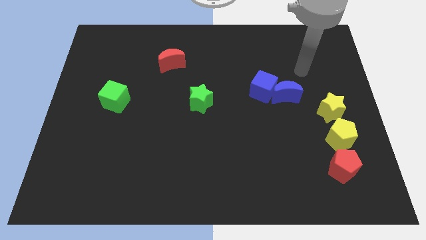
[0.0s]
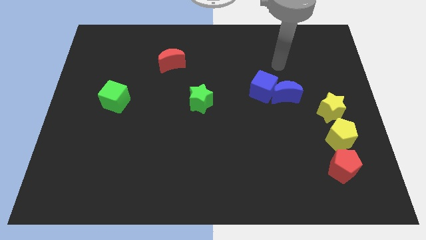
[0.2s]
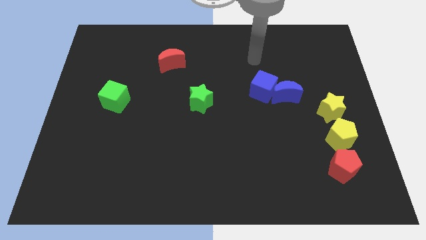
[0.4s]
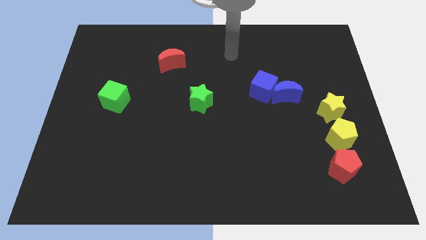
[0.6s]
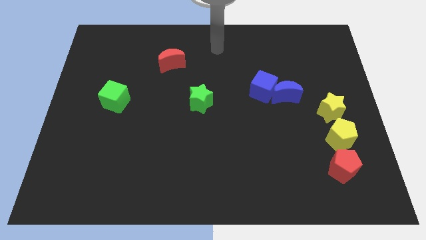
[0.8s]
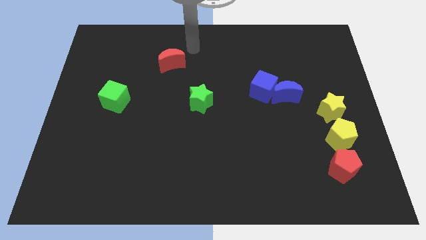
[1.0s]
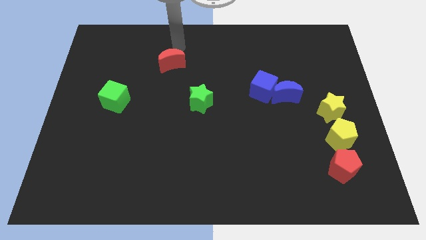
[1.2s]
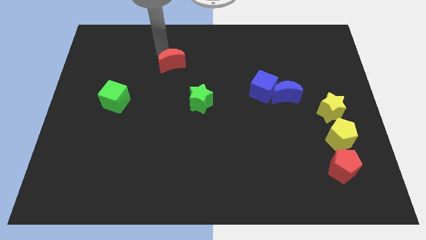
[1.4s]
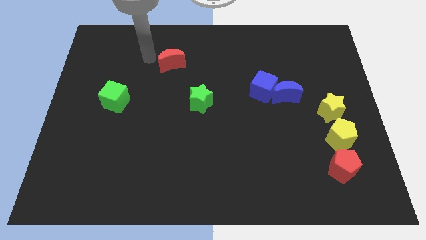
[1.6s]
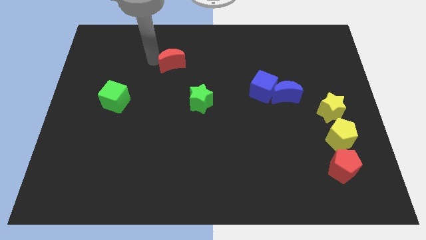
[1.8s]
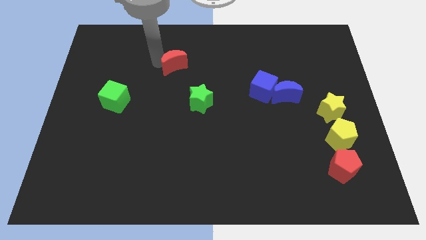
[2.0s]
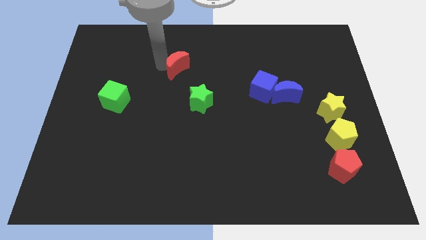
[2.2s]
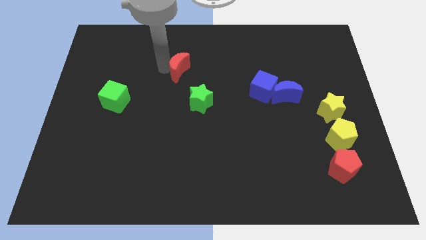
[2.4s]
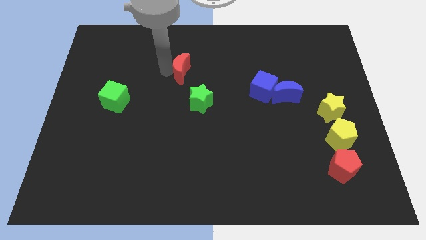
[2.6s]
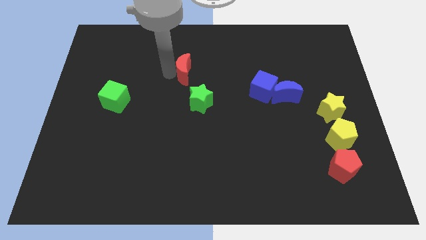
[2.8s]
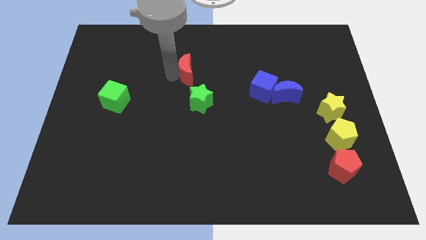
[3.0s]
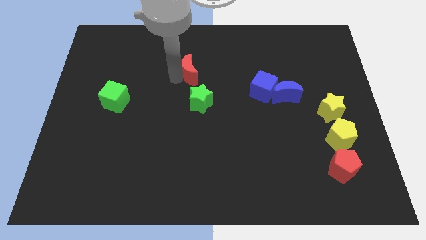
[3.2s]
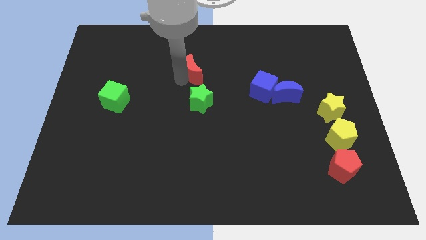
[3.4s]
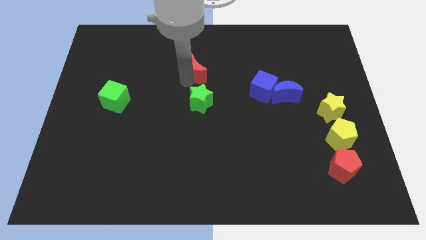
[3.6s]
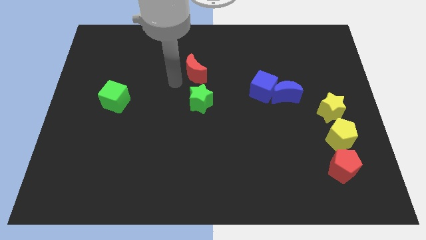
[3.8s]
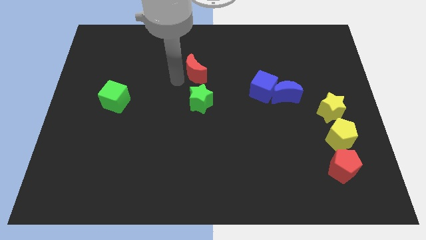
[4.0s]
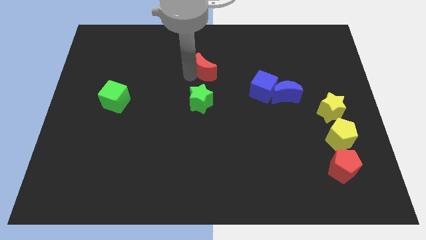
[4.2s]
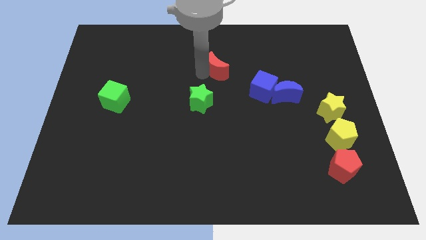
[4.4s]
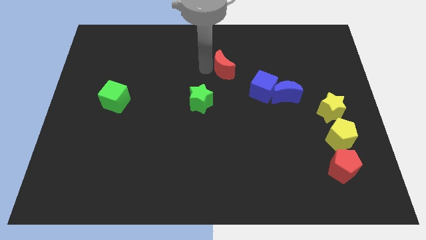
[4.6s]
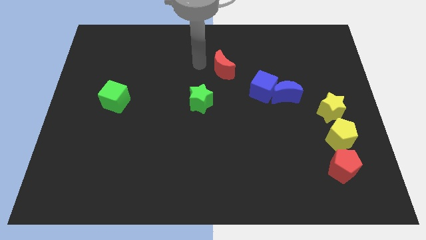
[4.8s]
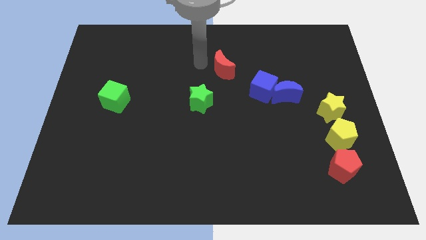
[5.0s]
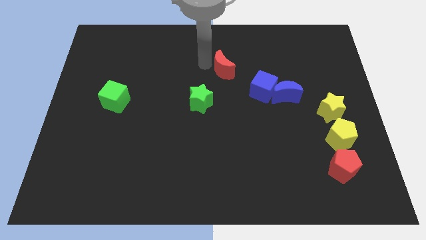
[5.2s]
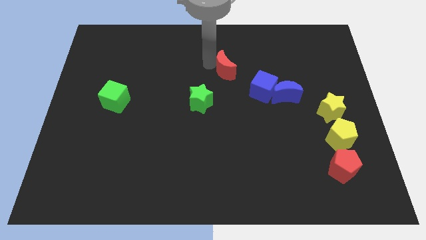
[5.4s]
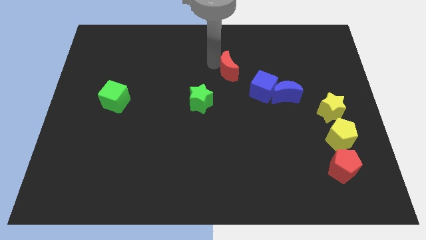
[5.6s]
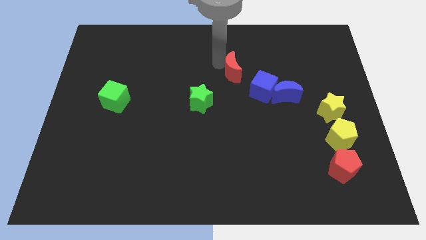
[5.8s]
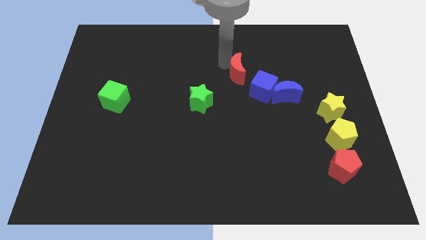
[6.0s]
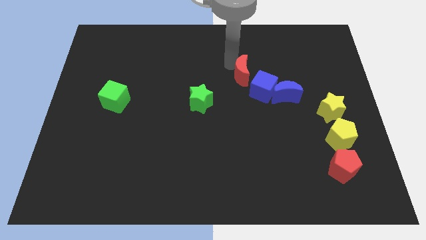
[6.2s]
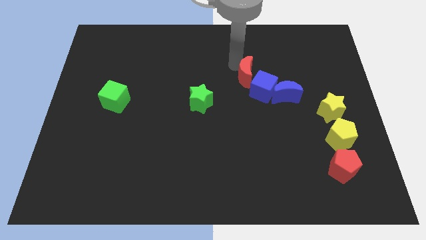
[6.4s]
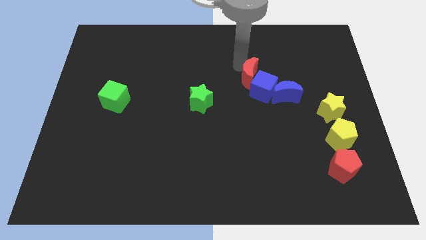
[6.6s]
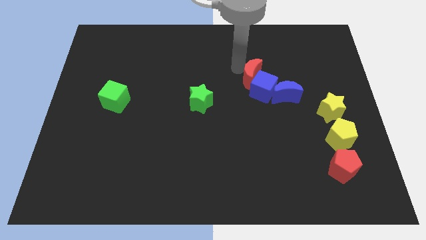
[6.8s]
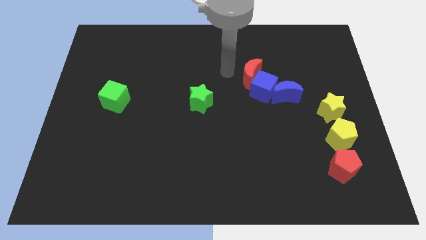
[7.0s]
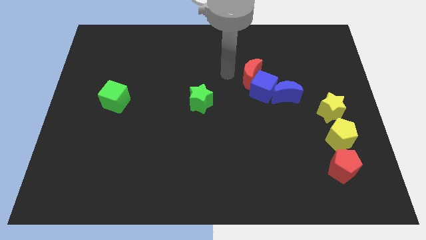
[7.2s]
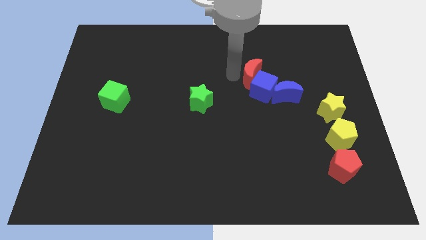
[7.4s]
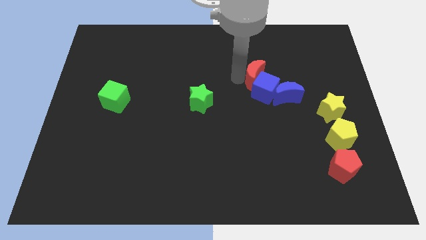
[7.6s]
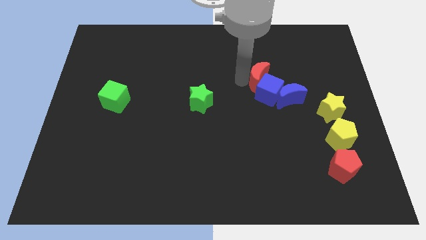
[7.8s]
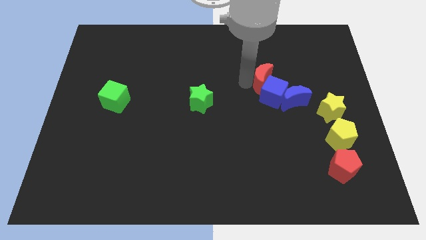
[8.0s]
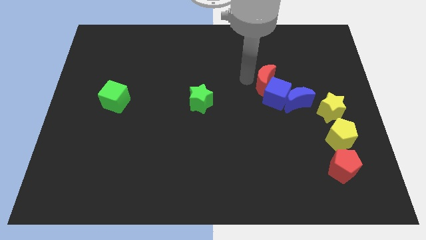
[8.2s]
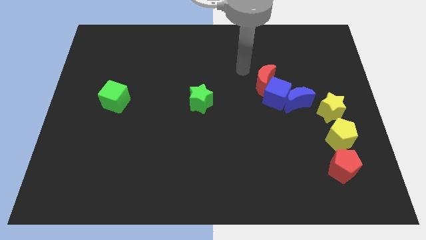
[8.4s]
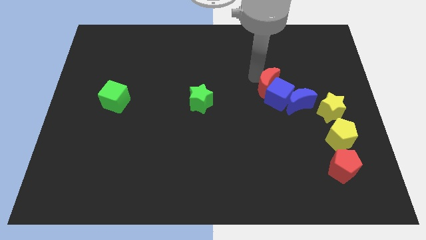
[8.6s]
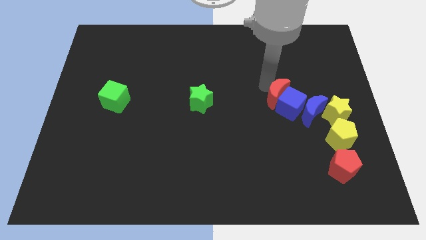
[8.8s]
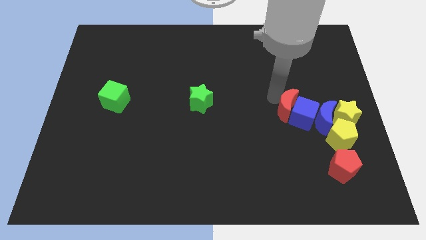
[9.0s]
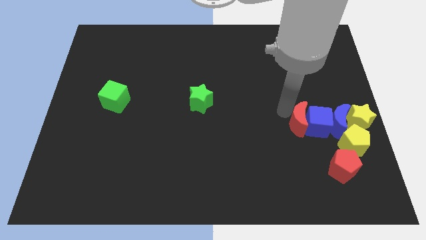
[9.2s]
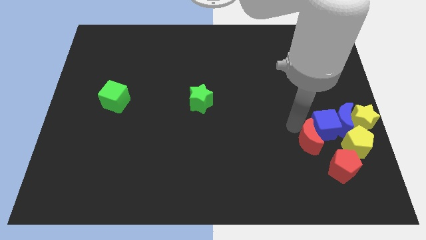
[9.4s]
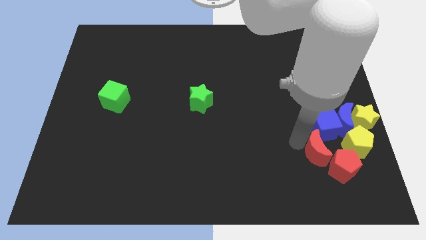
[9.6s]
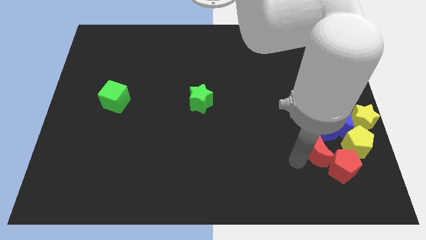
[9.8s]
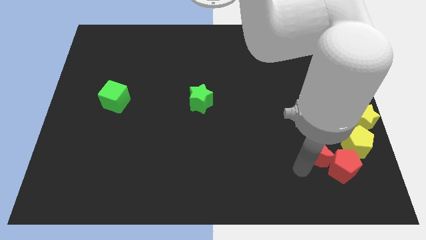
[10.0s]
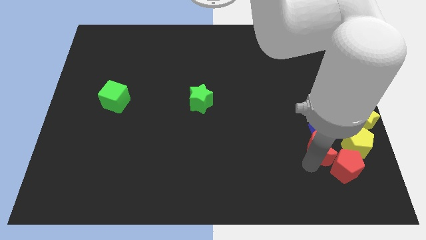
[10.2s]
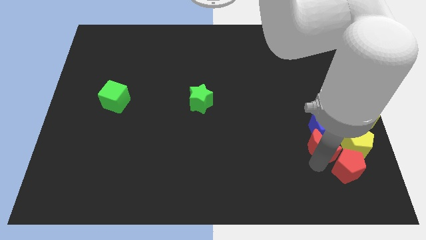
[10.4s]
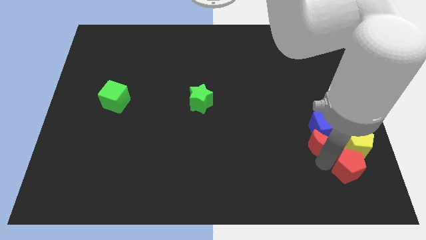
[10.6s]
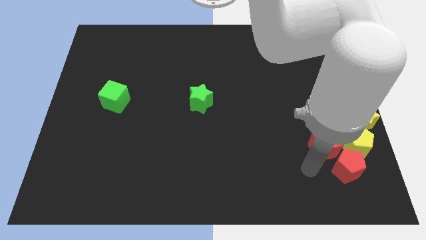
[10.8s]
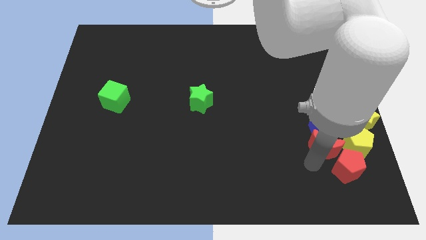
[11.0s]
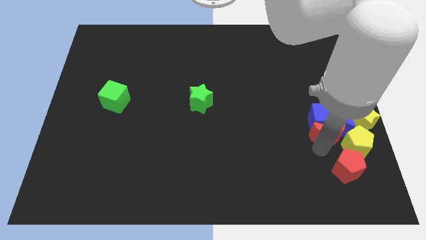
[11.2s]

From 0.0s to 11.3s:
slide the red moon to the blue moon

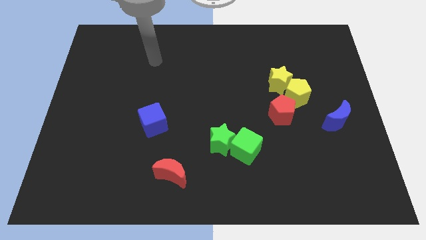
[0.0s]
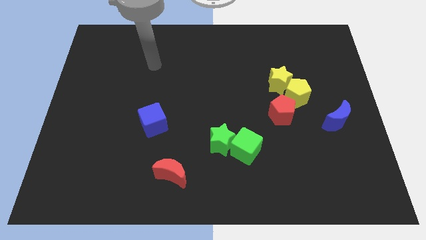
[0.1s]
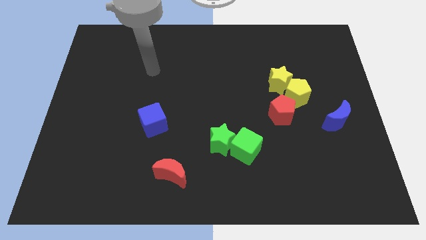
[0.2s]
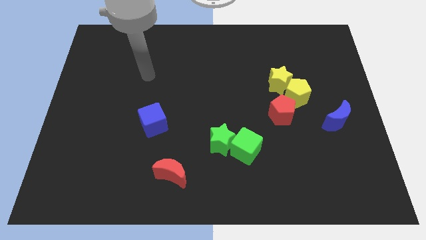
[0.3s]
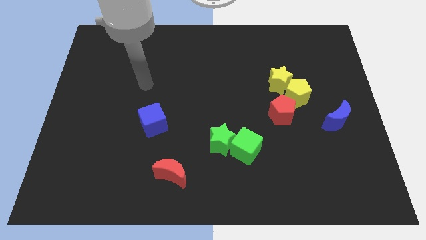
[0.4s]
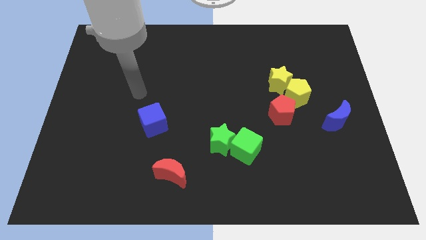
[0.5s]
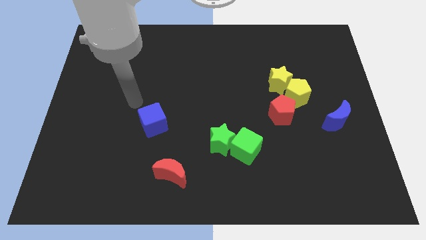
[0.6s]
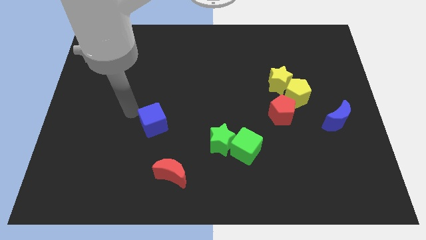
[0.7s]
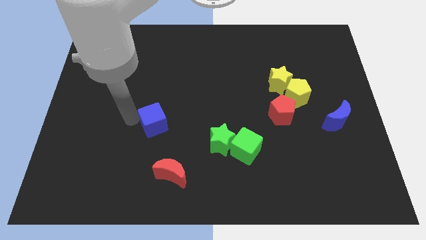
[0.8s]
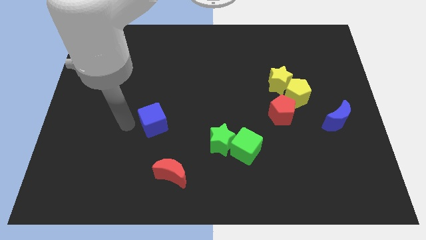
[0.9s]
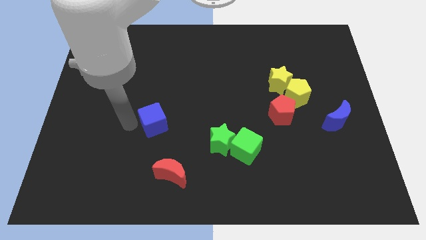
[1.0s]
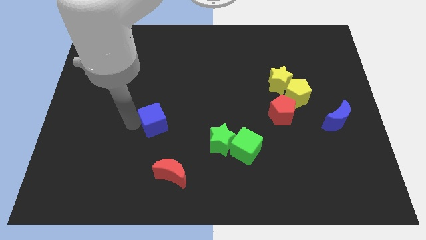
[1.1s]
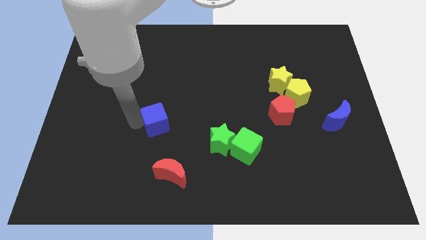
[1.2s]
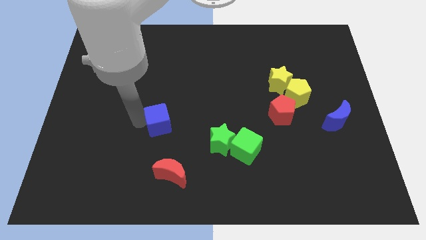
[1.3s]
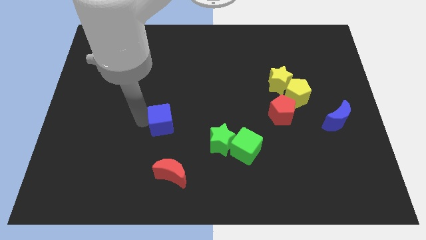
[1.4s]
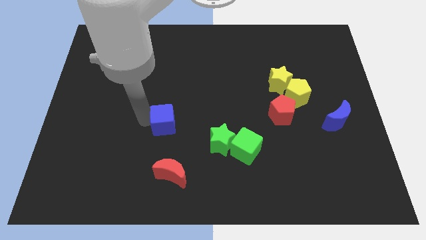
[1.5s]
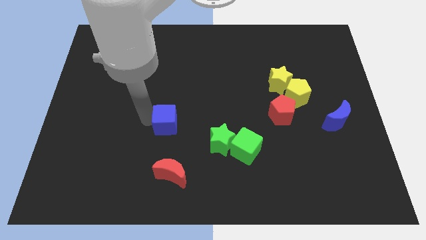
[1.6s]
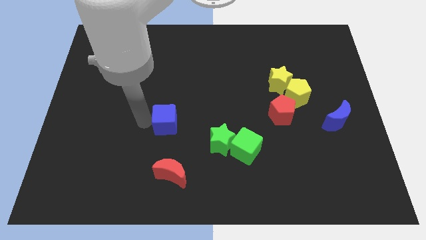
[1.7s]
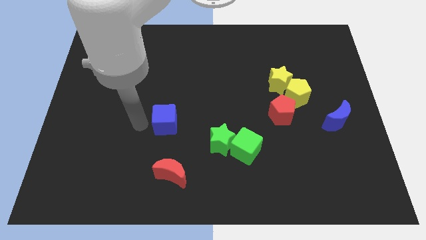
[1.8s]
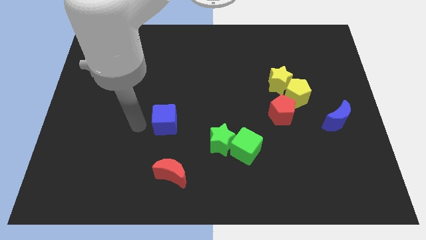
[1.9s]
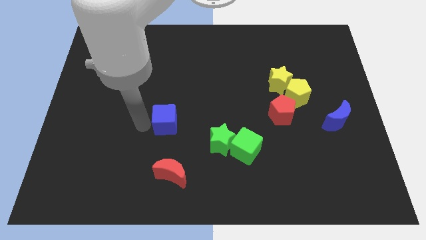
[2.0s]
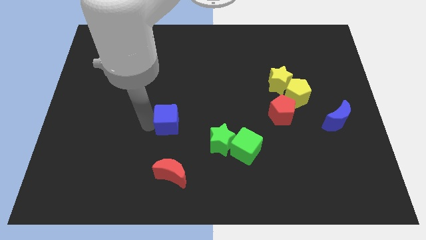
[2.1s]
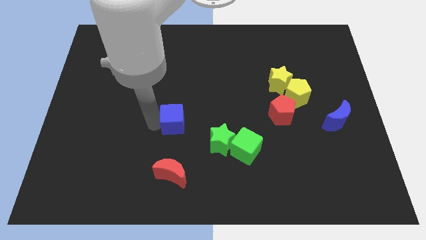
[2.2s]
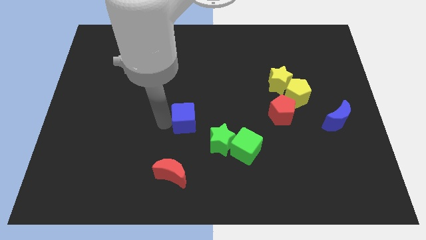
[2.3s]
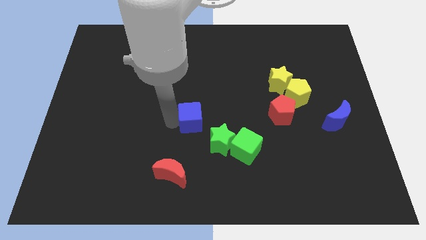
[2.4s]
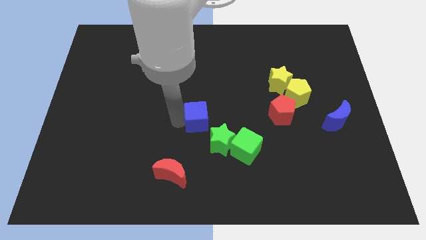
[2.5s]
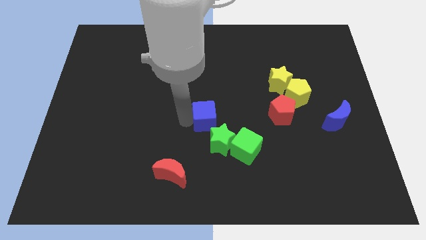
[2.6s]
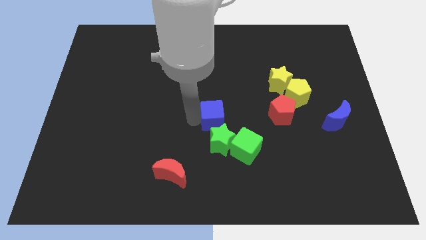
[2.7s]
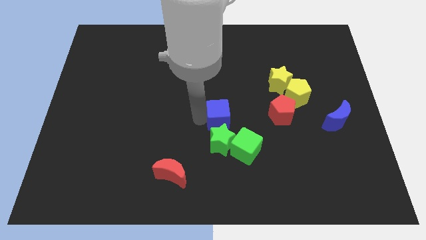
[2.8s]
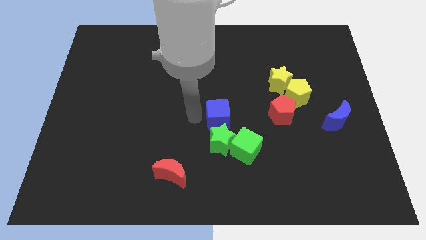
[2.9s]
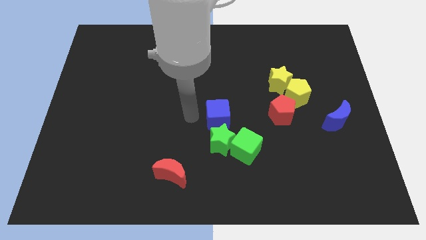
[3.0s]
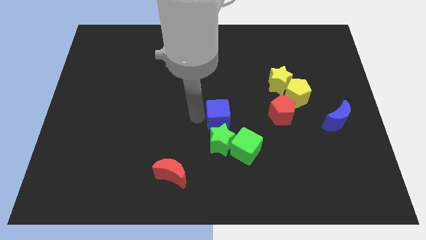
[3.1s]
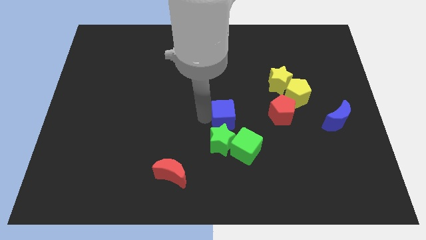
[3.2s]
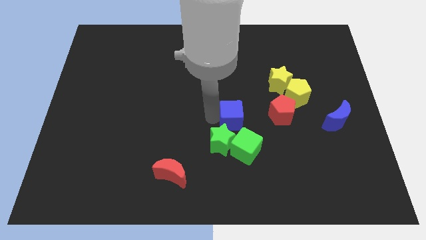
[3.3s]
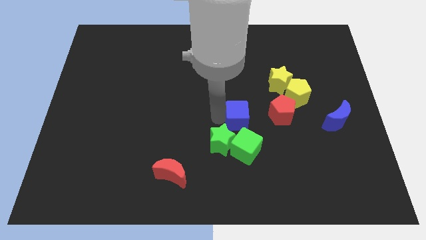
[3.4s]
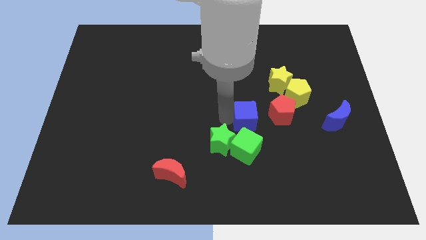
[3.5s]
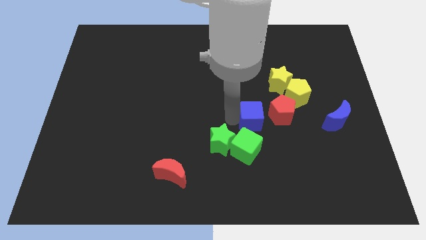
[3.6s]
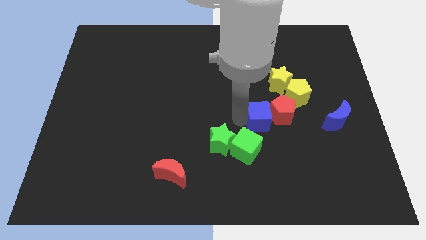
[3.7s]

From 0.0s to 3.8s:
slide the blue cube next to the red pentagon
